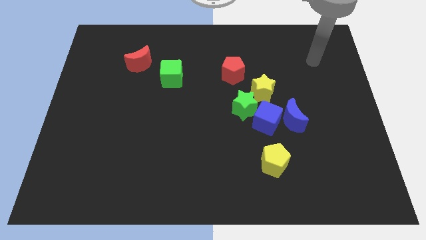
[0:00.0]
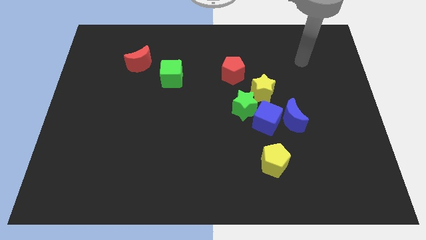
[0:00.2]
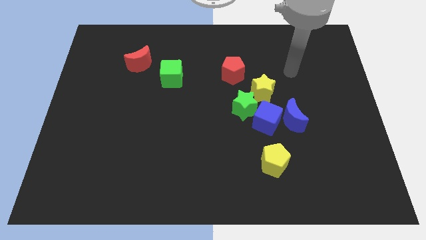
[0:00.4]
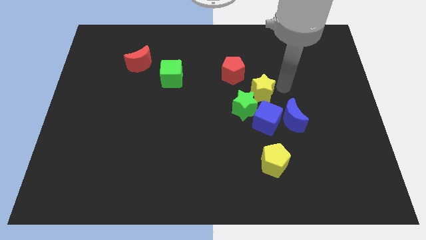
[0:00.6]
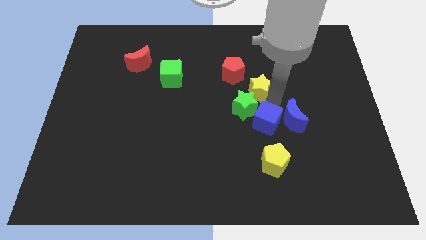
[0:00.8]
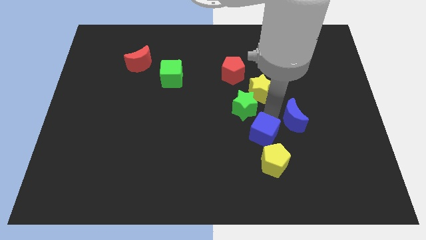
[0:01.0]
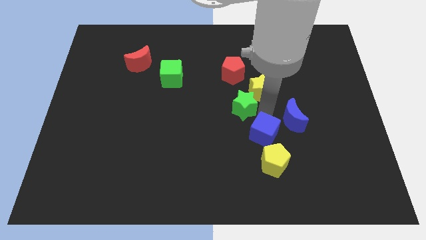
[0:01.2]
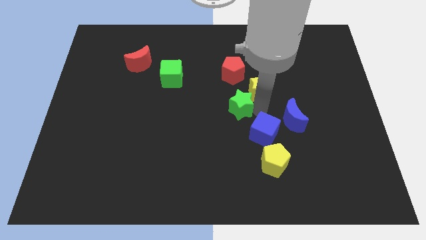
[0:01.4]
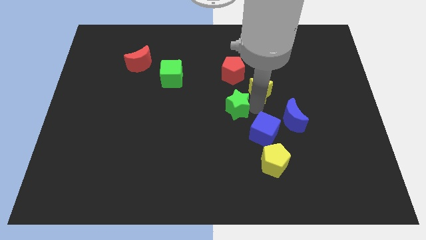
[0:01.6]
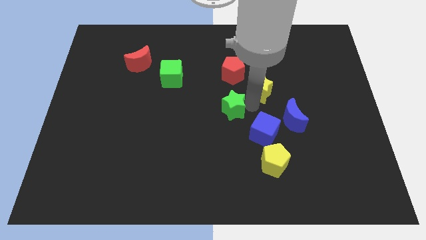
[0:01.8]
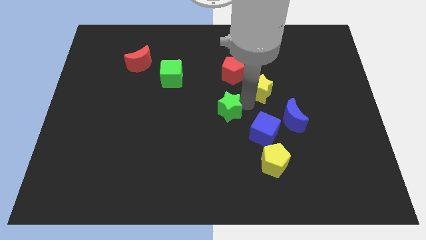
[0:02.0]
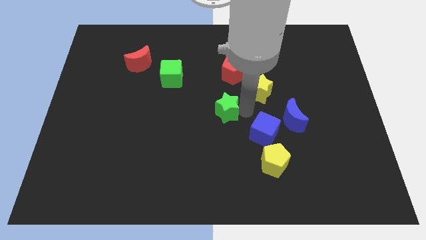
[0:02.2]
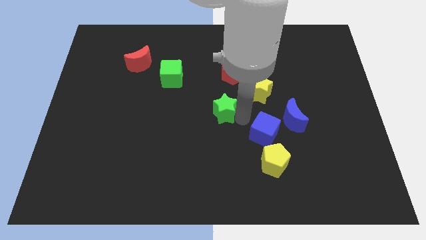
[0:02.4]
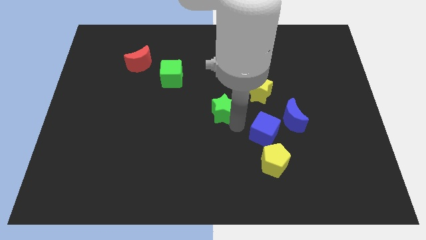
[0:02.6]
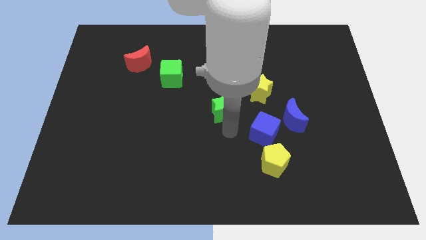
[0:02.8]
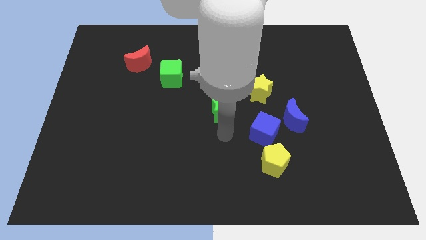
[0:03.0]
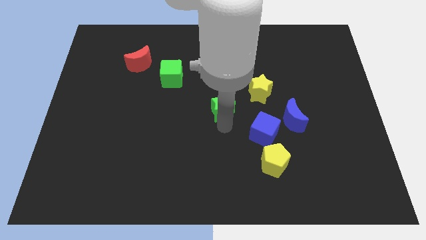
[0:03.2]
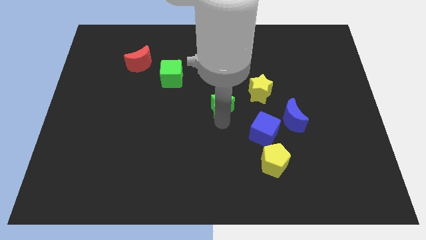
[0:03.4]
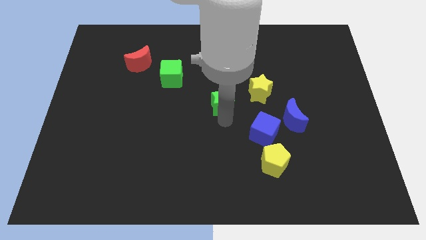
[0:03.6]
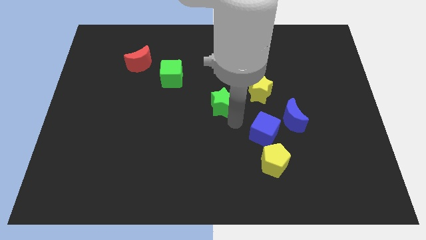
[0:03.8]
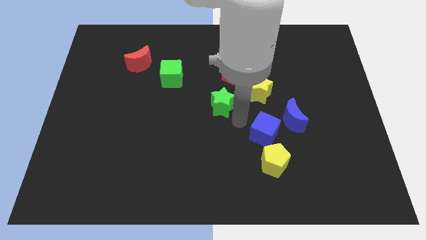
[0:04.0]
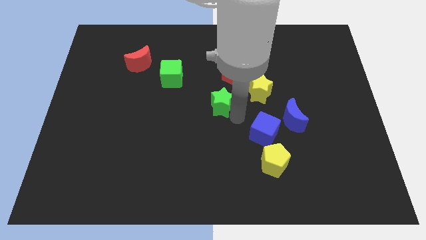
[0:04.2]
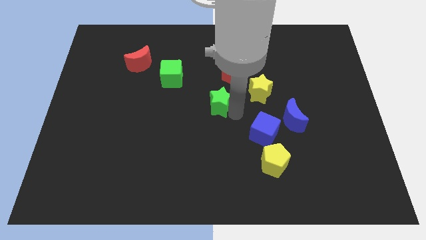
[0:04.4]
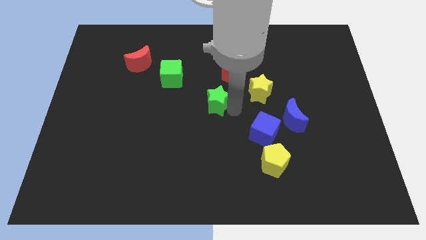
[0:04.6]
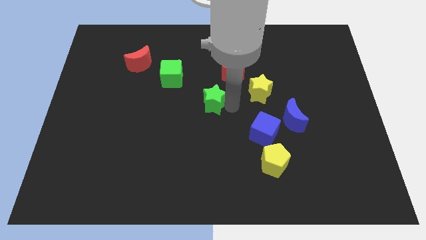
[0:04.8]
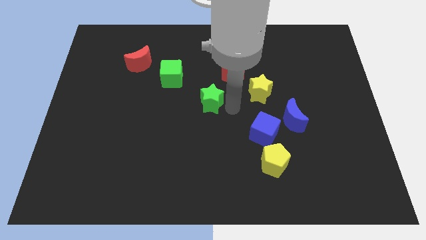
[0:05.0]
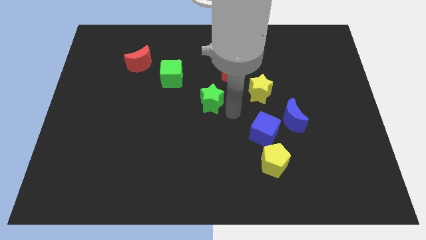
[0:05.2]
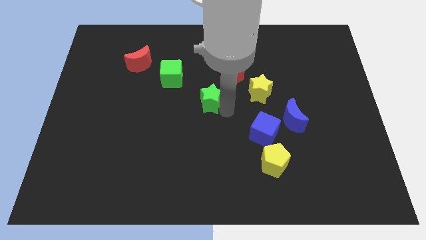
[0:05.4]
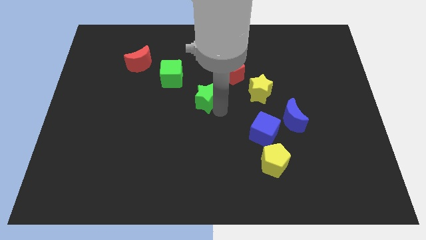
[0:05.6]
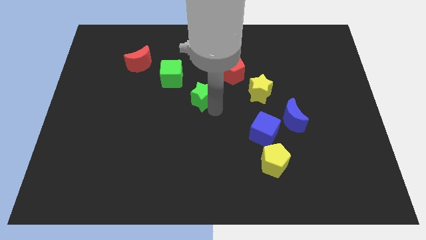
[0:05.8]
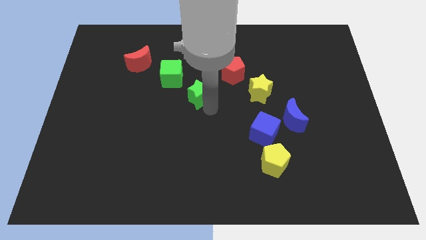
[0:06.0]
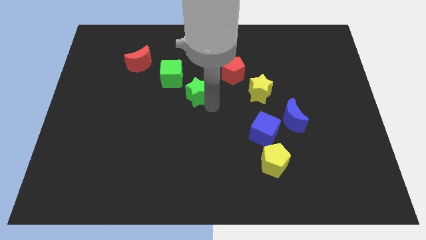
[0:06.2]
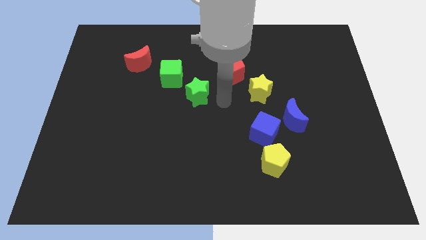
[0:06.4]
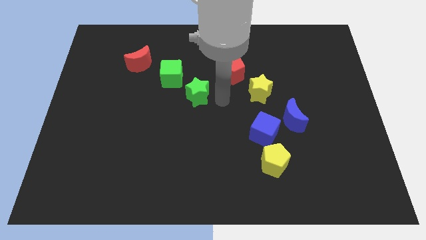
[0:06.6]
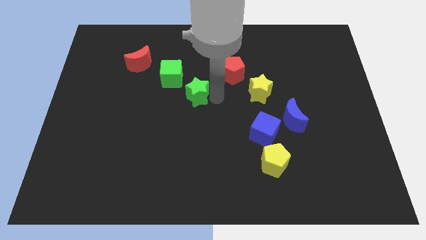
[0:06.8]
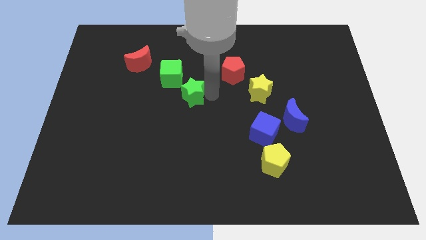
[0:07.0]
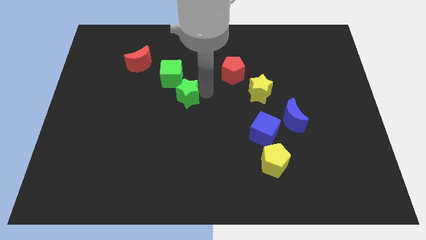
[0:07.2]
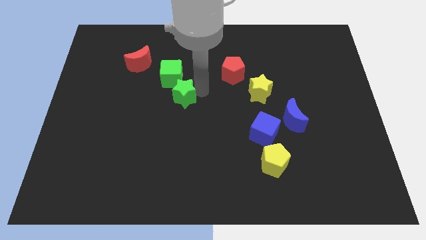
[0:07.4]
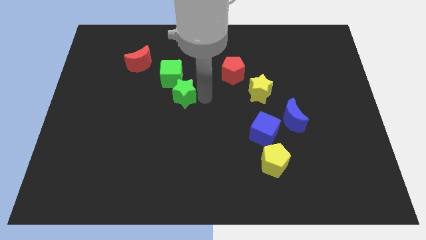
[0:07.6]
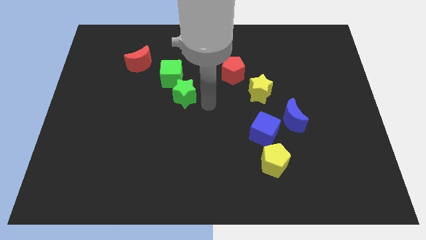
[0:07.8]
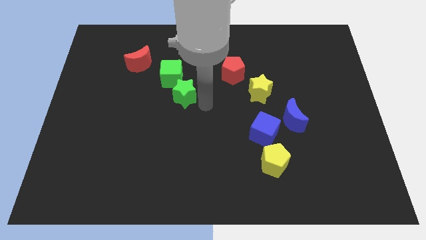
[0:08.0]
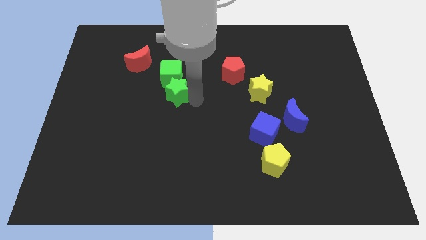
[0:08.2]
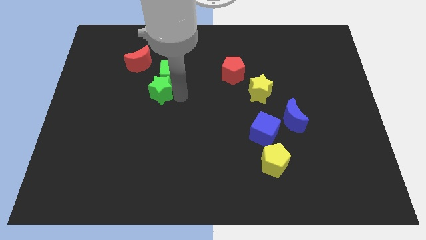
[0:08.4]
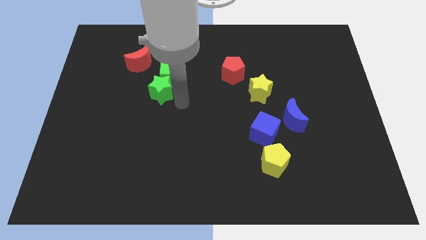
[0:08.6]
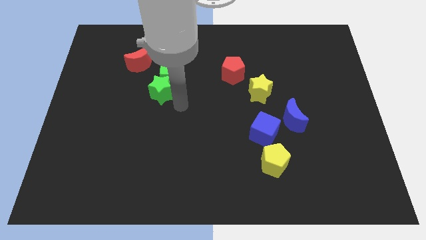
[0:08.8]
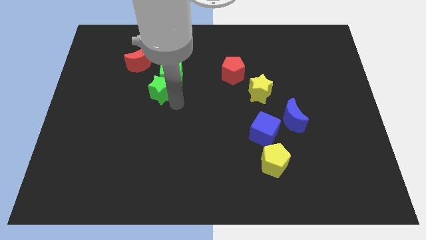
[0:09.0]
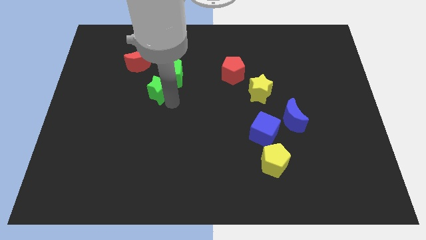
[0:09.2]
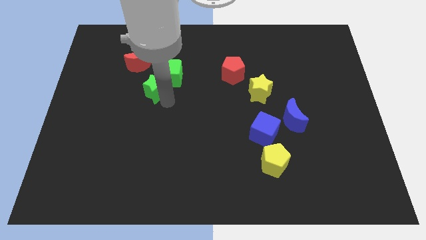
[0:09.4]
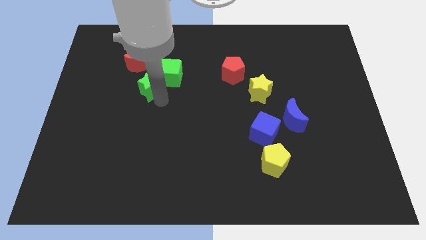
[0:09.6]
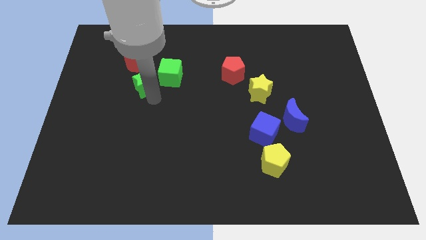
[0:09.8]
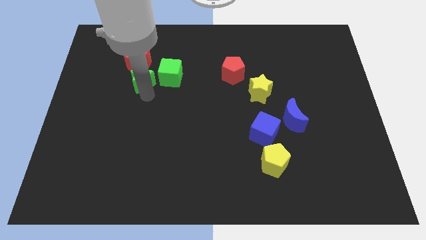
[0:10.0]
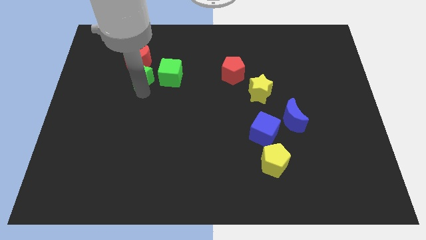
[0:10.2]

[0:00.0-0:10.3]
put the green star next to the red moon

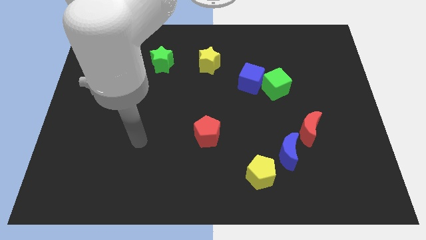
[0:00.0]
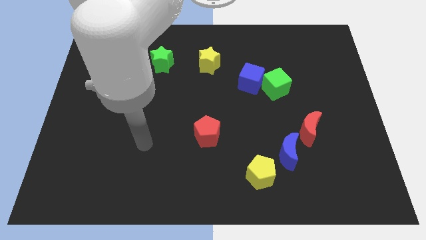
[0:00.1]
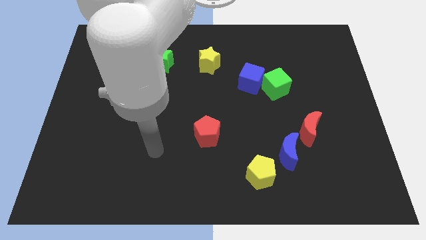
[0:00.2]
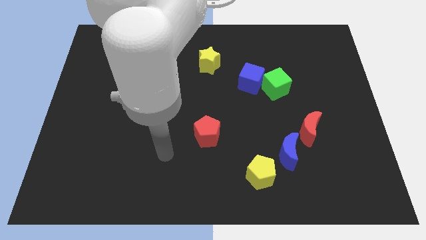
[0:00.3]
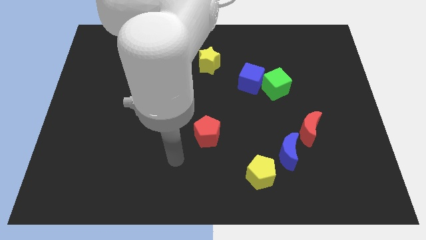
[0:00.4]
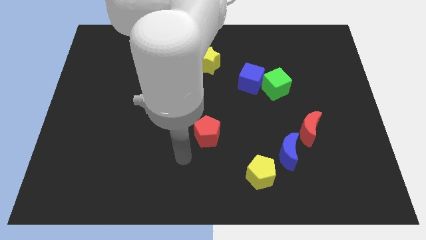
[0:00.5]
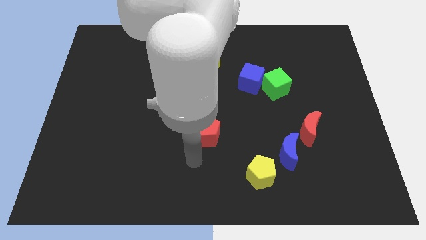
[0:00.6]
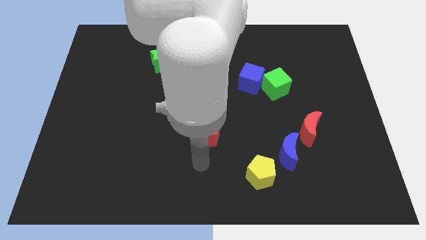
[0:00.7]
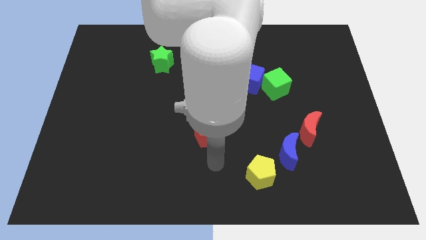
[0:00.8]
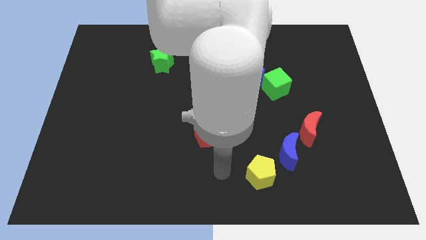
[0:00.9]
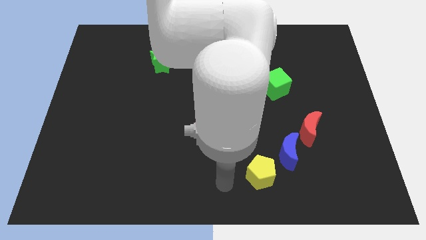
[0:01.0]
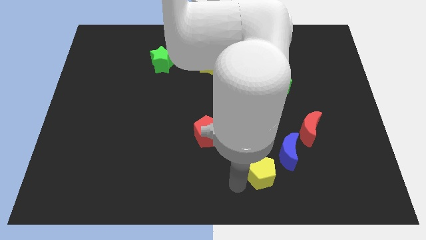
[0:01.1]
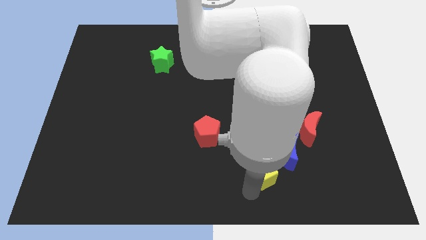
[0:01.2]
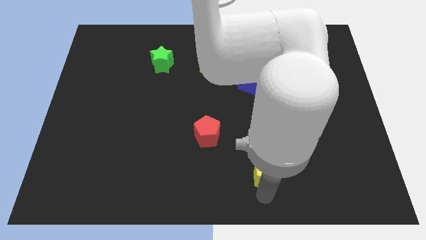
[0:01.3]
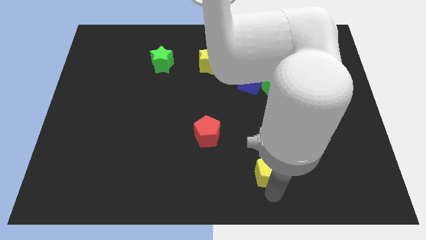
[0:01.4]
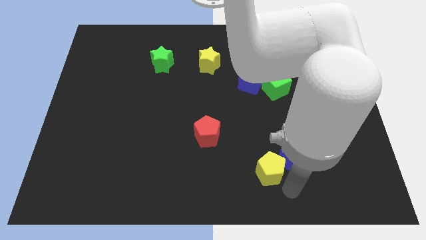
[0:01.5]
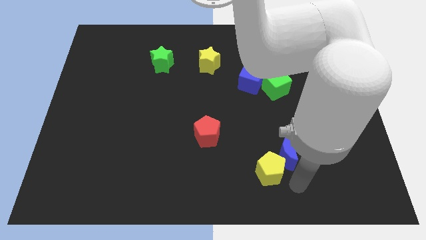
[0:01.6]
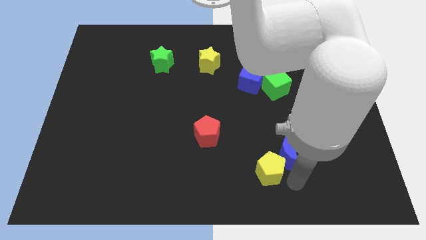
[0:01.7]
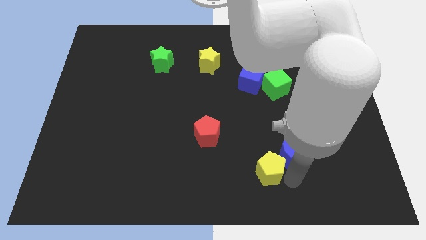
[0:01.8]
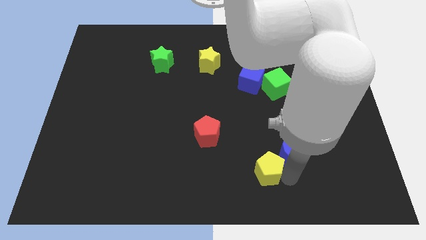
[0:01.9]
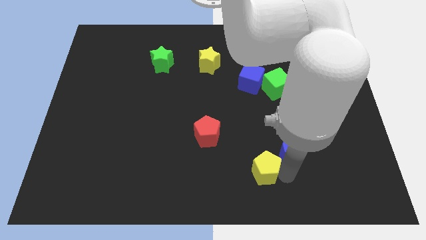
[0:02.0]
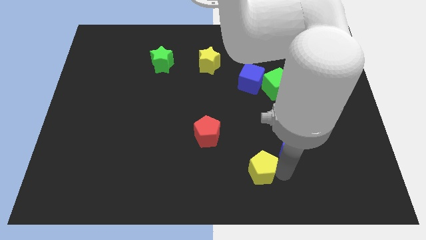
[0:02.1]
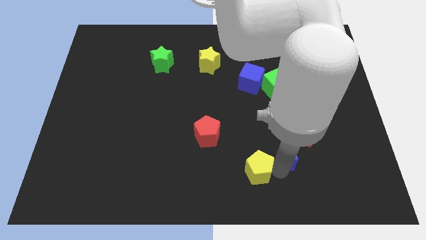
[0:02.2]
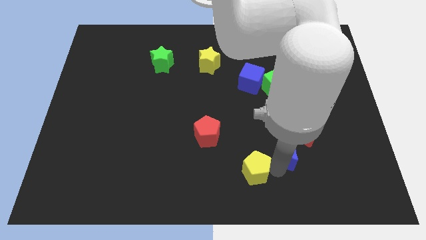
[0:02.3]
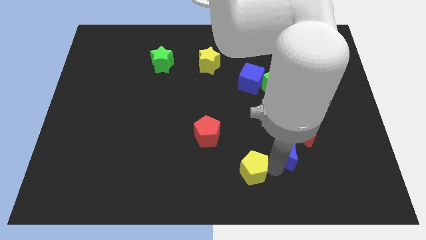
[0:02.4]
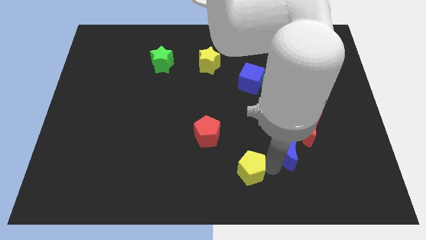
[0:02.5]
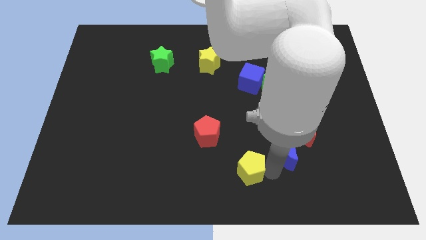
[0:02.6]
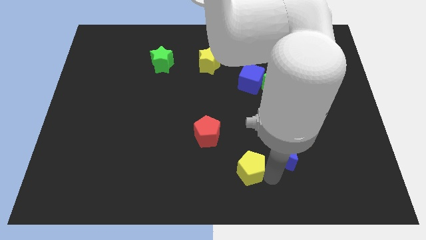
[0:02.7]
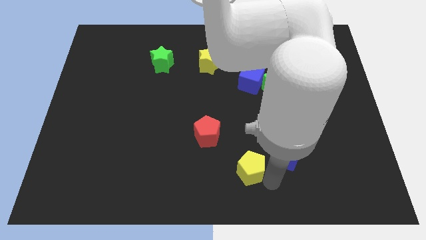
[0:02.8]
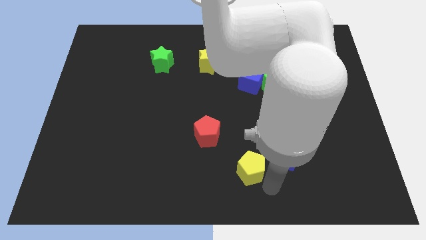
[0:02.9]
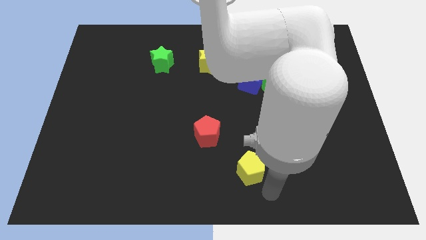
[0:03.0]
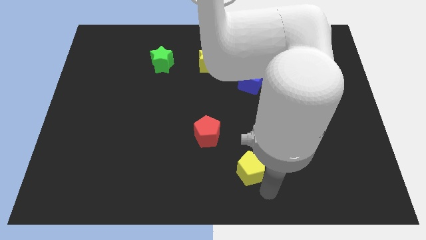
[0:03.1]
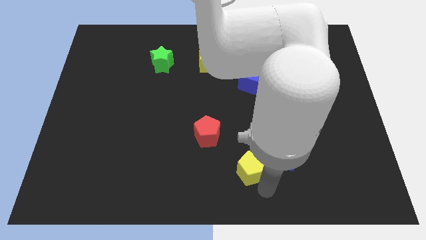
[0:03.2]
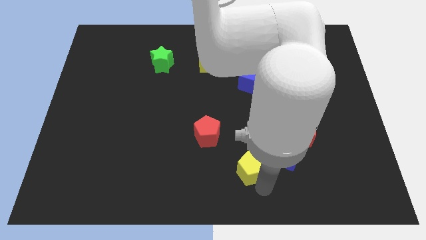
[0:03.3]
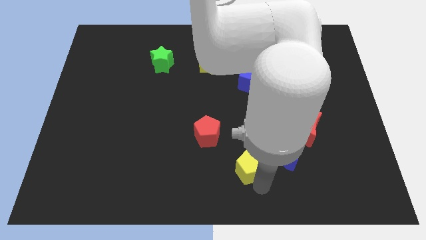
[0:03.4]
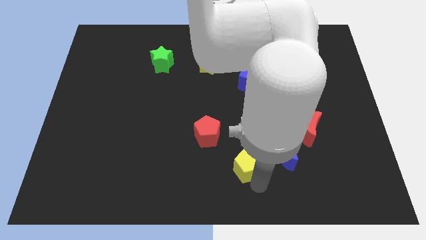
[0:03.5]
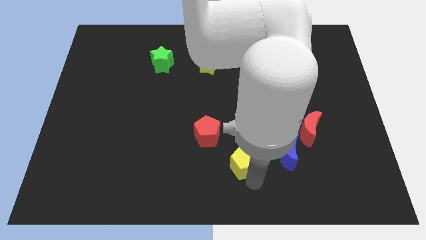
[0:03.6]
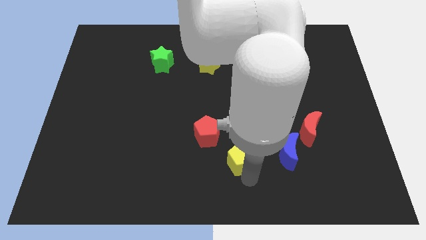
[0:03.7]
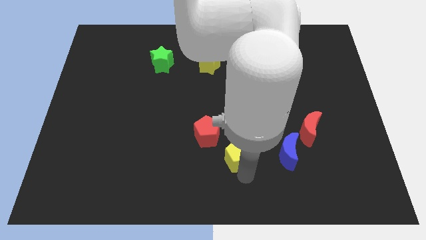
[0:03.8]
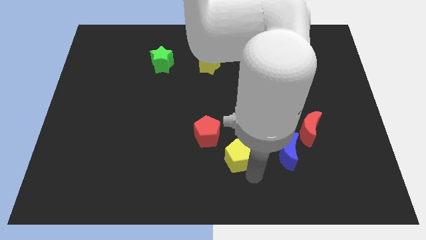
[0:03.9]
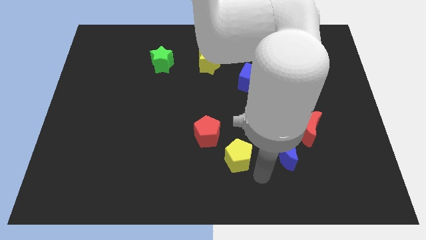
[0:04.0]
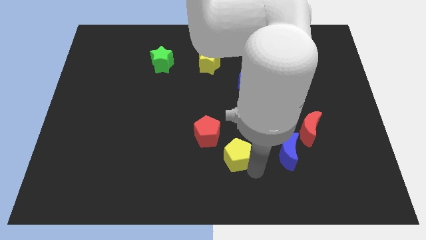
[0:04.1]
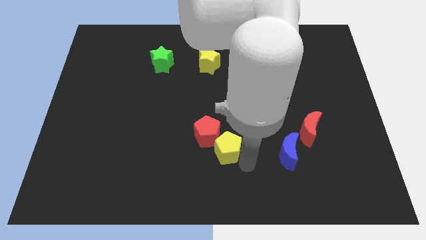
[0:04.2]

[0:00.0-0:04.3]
move the yellow pentagon towards the red pentagon
